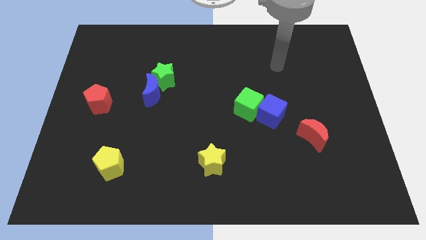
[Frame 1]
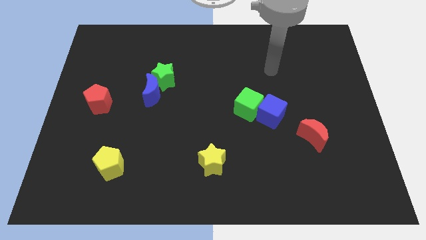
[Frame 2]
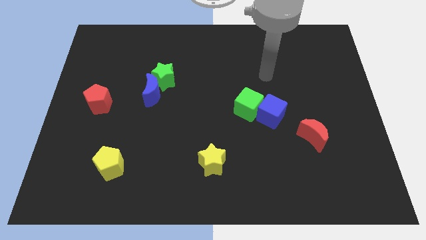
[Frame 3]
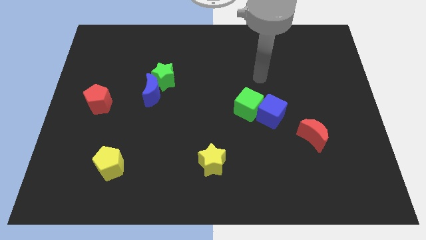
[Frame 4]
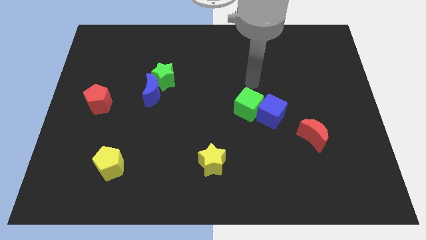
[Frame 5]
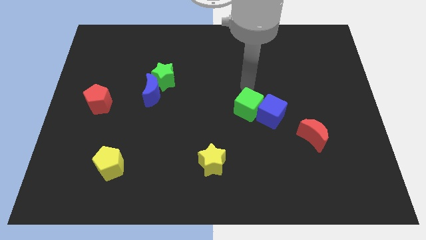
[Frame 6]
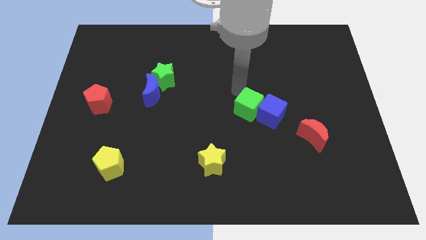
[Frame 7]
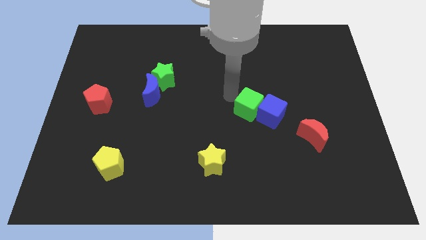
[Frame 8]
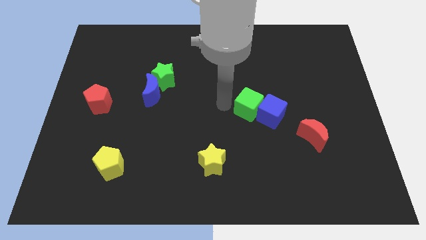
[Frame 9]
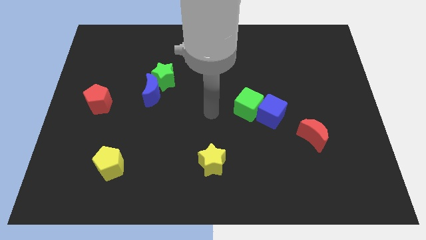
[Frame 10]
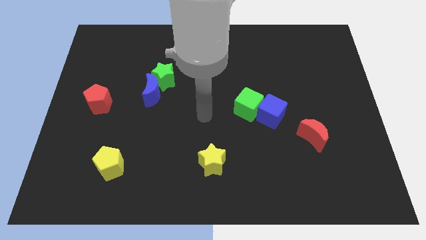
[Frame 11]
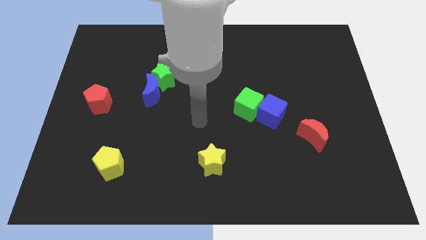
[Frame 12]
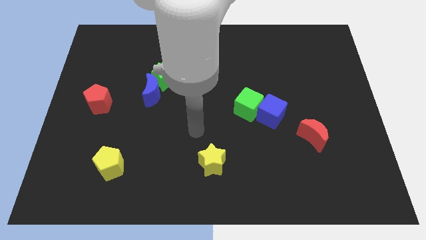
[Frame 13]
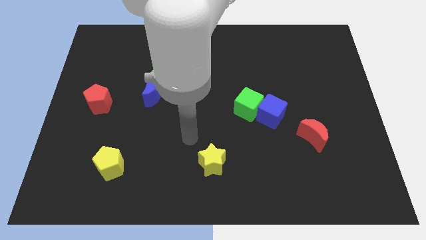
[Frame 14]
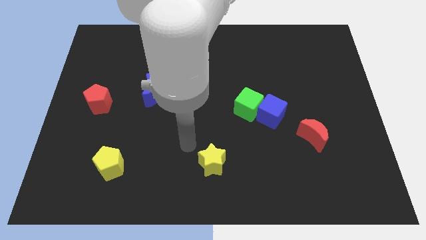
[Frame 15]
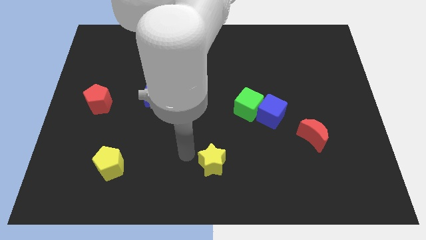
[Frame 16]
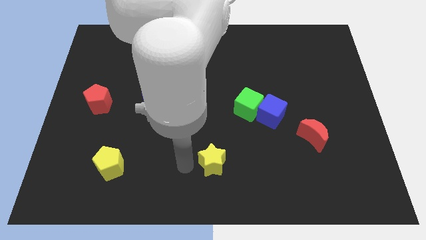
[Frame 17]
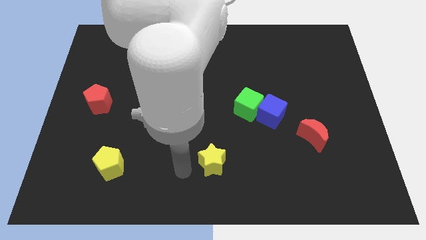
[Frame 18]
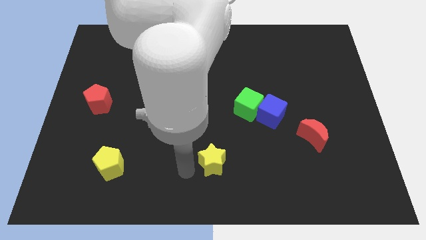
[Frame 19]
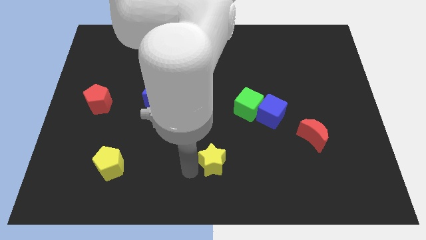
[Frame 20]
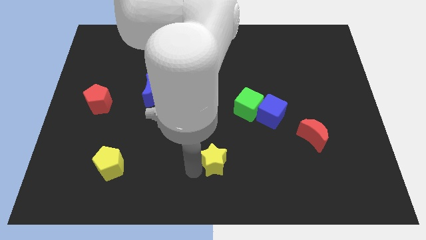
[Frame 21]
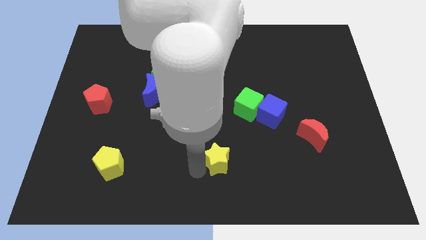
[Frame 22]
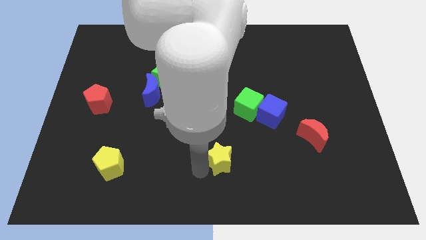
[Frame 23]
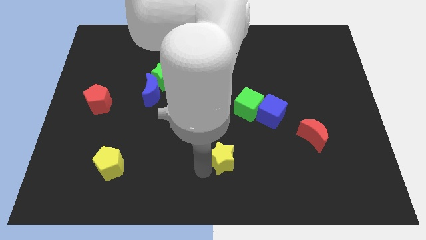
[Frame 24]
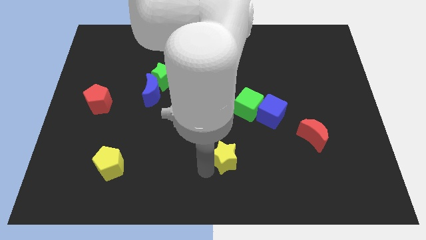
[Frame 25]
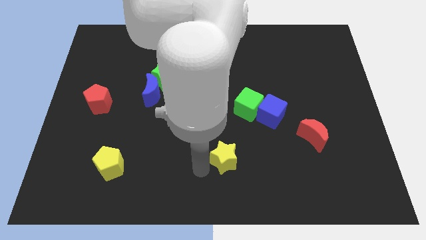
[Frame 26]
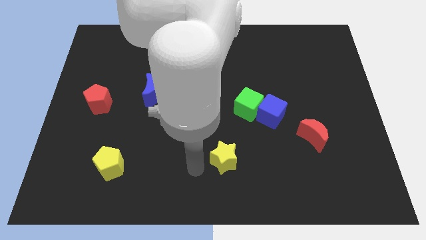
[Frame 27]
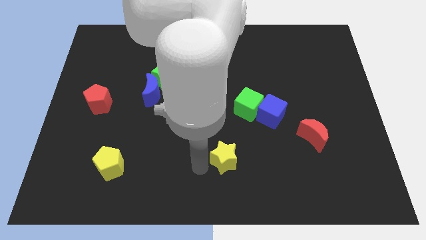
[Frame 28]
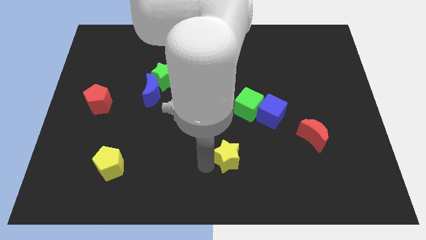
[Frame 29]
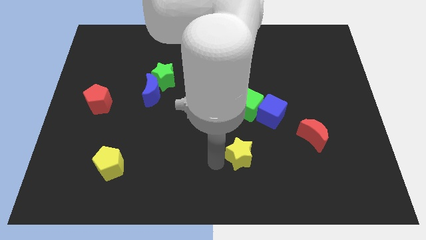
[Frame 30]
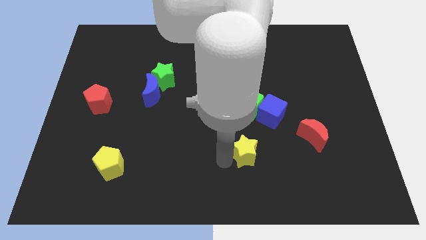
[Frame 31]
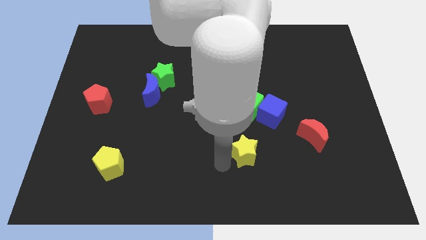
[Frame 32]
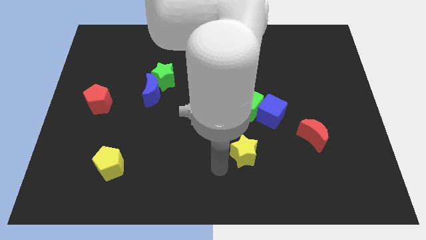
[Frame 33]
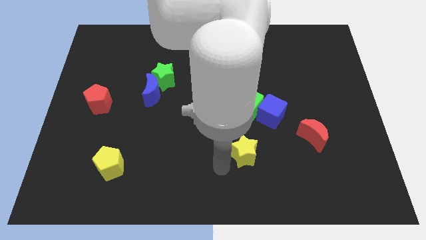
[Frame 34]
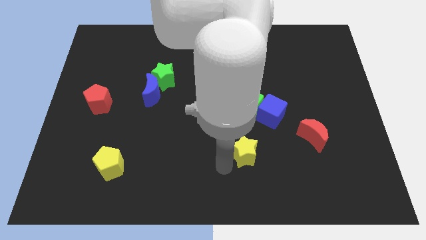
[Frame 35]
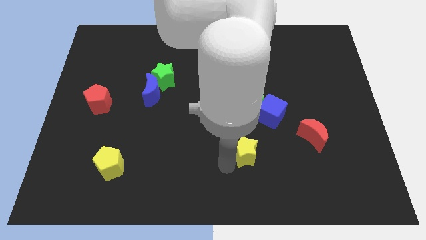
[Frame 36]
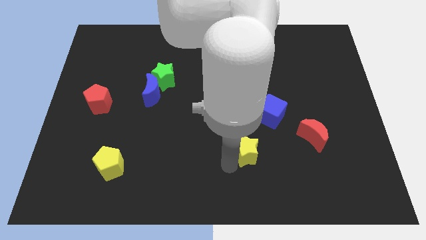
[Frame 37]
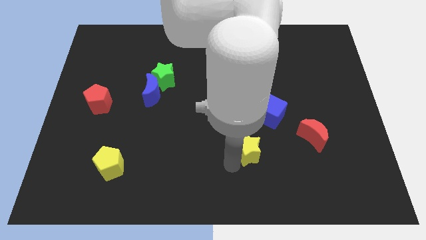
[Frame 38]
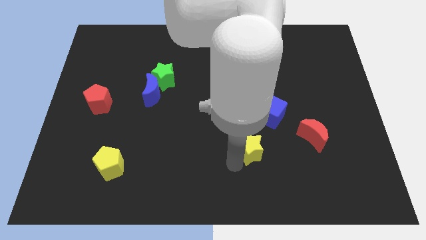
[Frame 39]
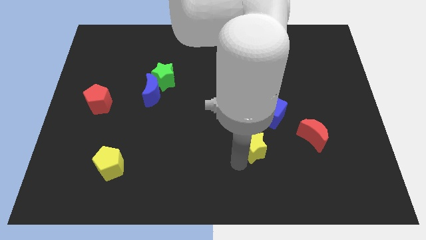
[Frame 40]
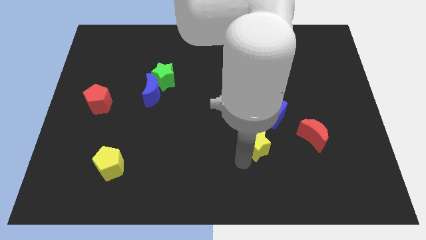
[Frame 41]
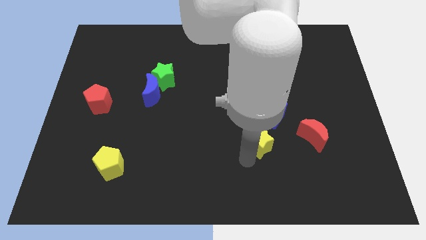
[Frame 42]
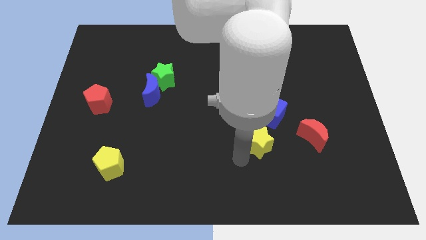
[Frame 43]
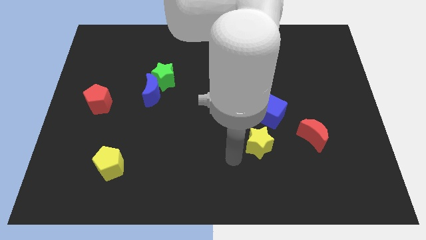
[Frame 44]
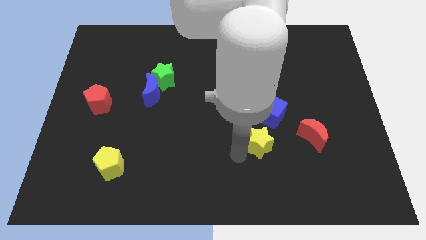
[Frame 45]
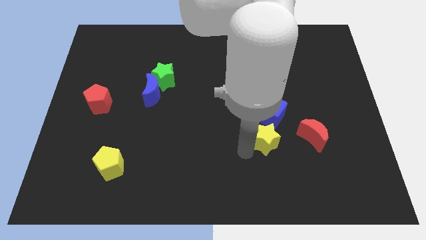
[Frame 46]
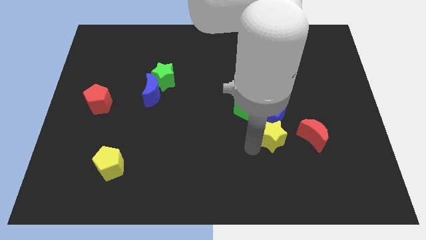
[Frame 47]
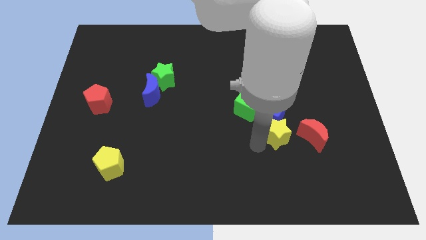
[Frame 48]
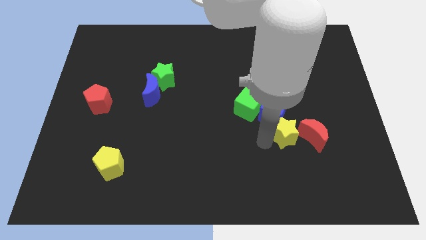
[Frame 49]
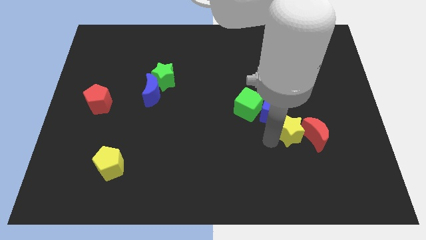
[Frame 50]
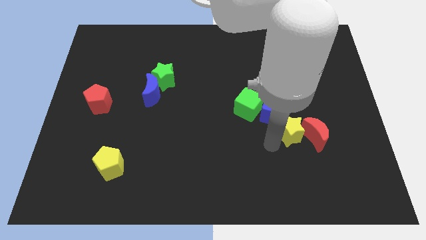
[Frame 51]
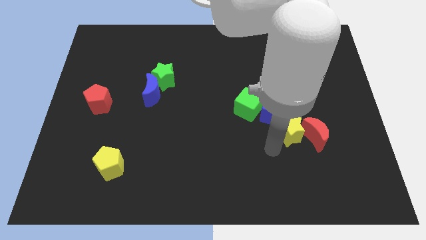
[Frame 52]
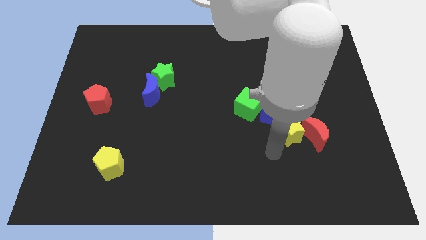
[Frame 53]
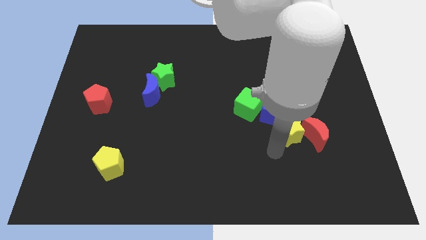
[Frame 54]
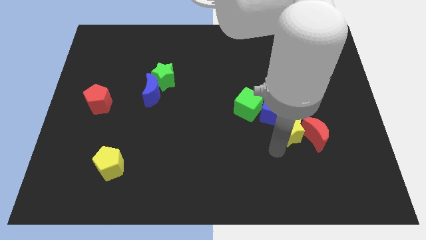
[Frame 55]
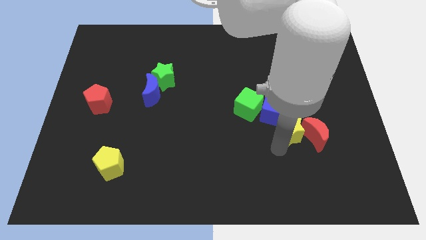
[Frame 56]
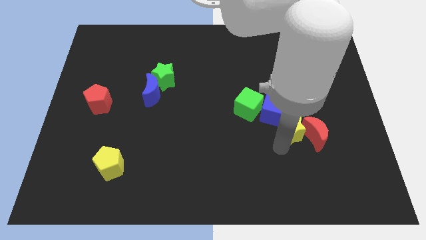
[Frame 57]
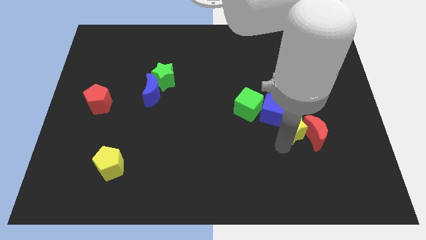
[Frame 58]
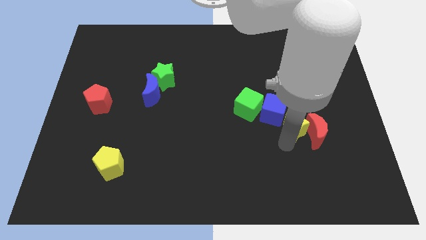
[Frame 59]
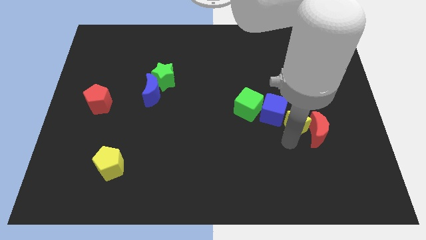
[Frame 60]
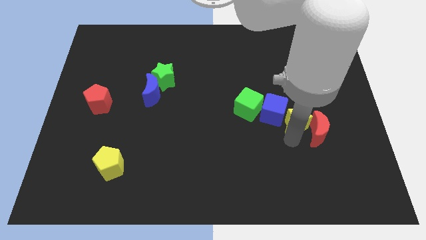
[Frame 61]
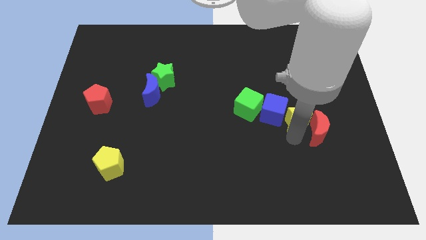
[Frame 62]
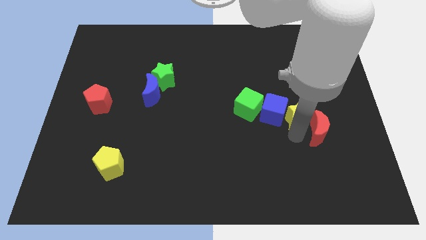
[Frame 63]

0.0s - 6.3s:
slide the yellow star upwards and right

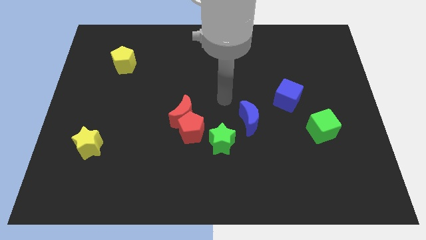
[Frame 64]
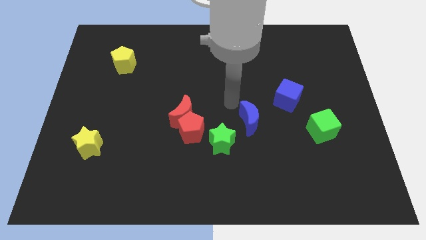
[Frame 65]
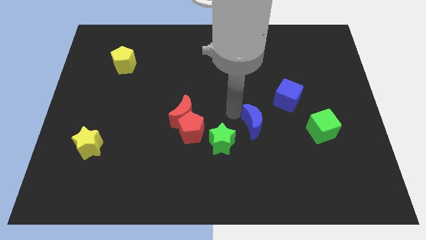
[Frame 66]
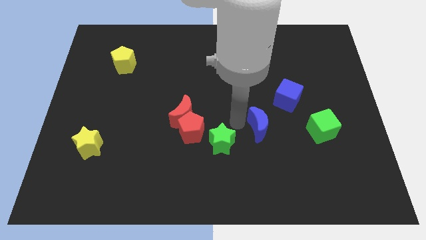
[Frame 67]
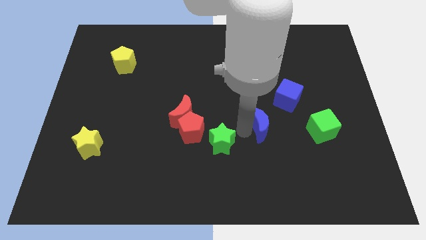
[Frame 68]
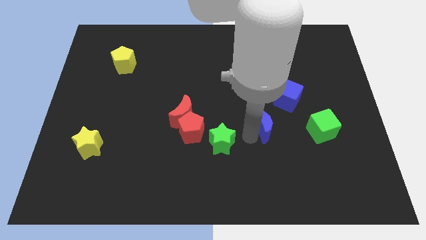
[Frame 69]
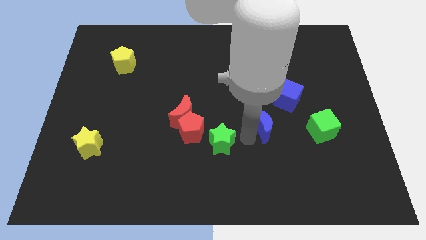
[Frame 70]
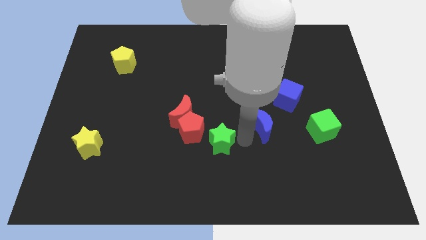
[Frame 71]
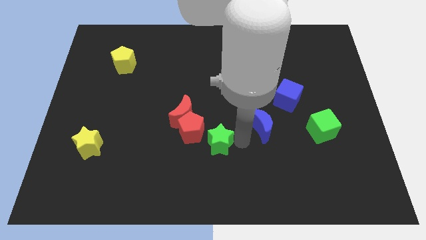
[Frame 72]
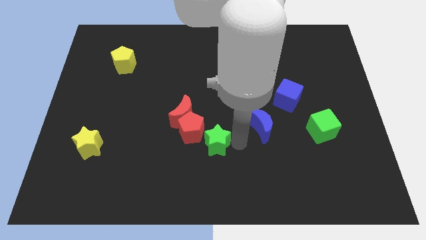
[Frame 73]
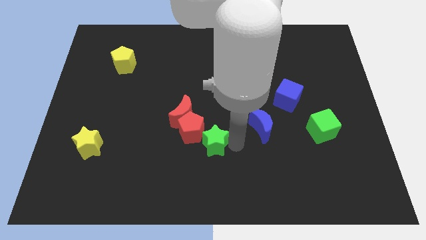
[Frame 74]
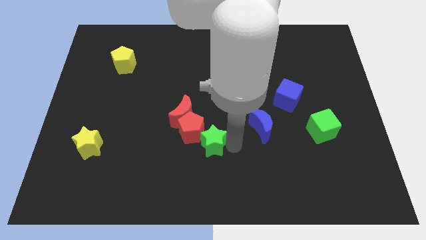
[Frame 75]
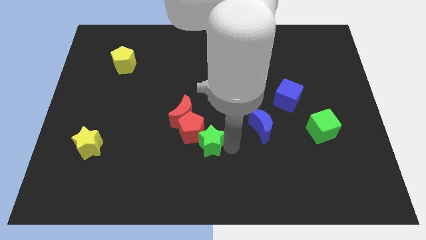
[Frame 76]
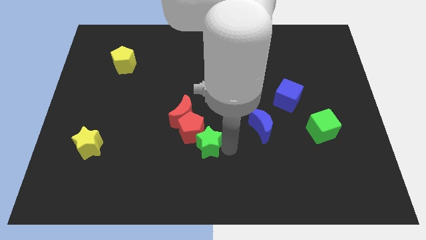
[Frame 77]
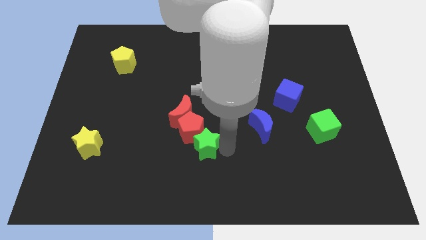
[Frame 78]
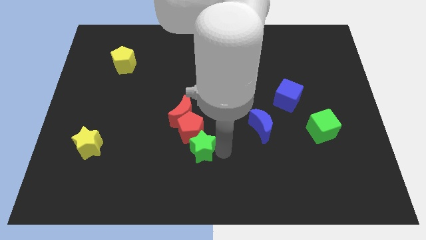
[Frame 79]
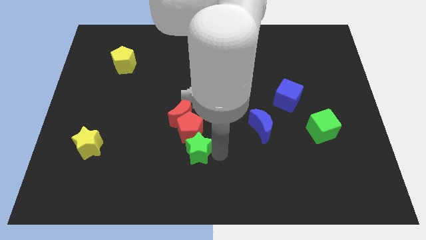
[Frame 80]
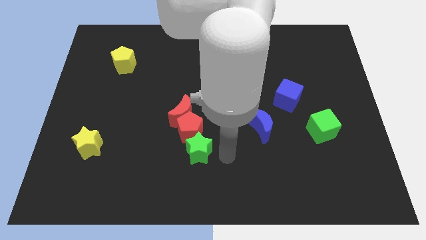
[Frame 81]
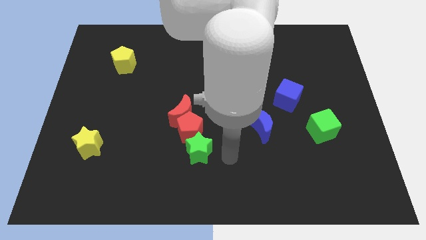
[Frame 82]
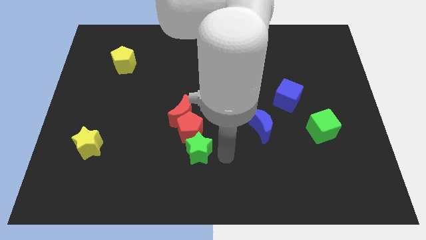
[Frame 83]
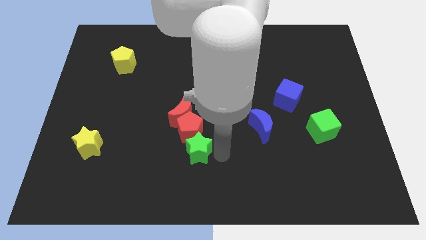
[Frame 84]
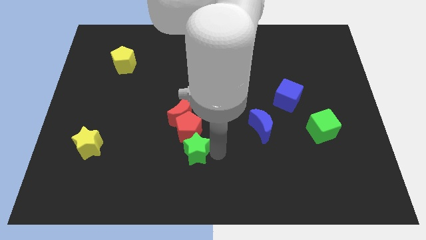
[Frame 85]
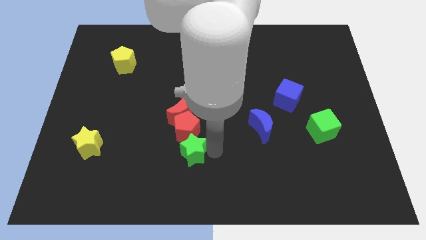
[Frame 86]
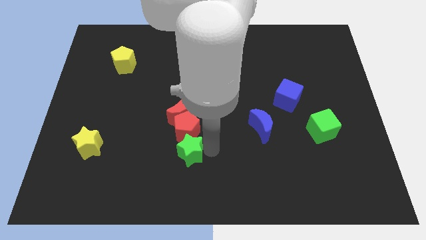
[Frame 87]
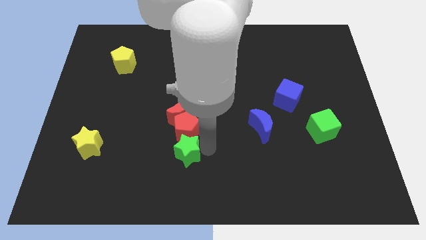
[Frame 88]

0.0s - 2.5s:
move the green star a little bit left
